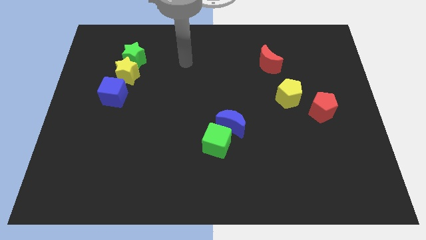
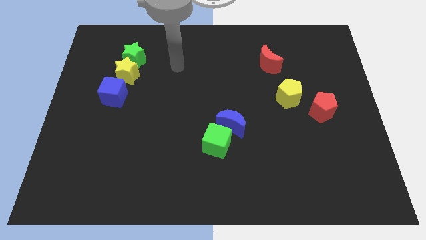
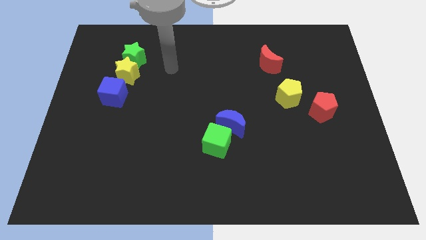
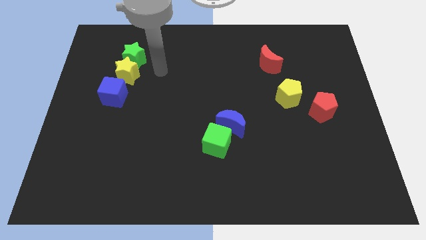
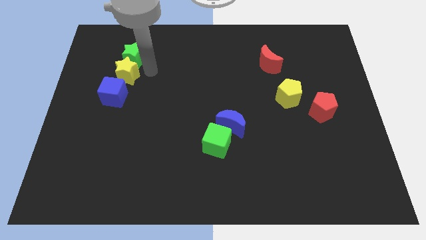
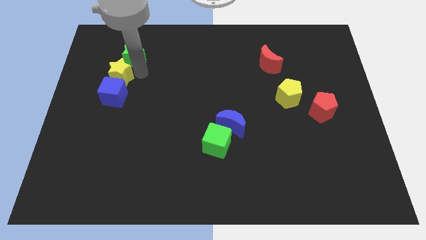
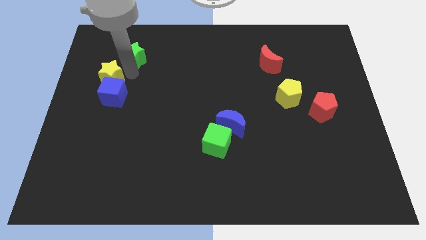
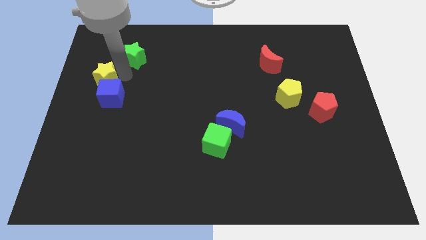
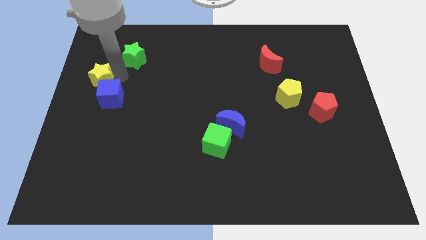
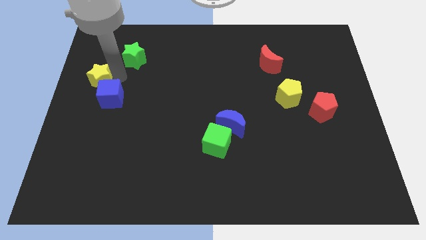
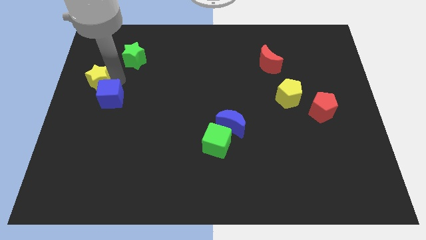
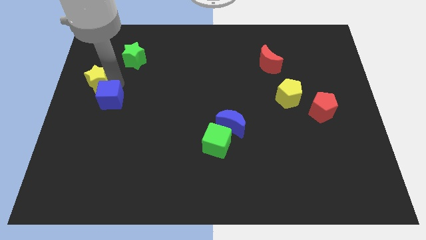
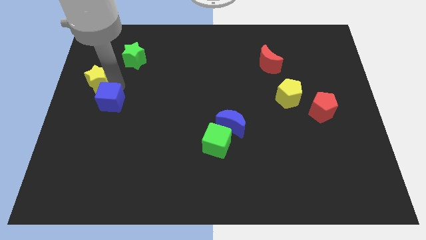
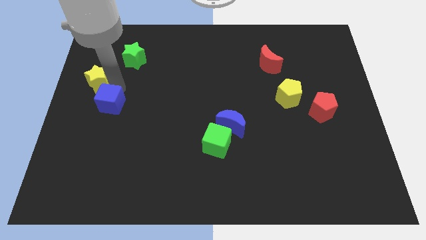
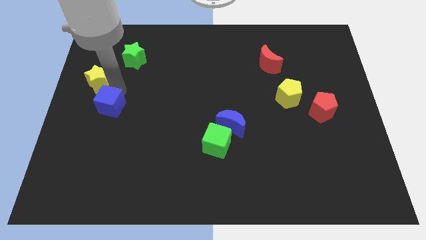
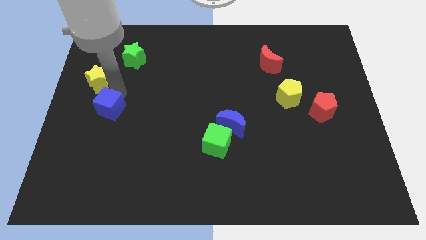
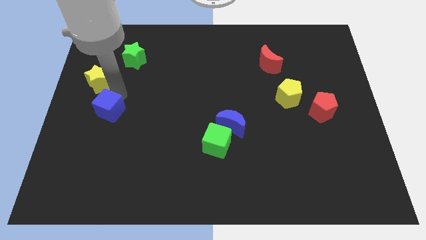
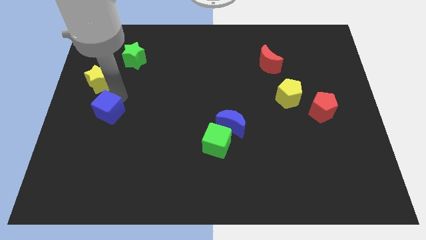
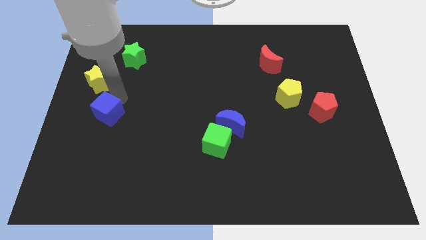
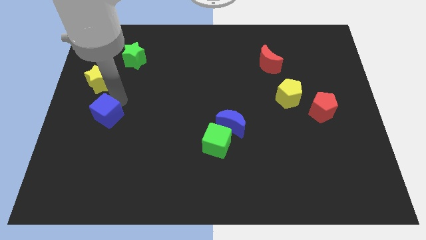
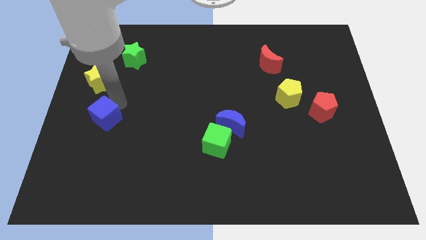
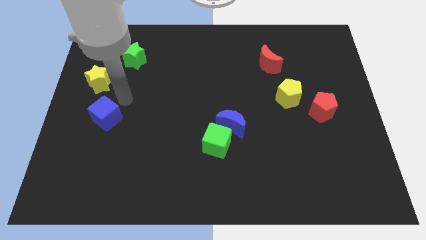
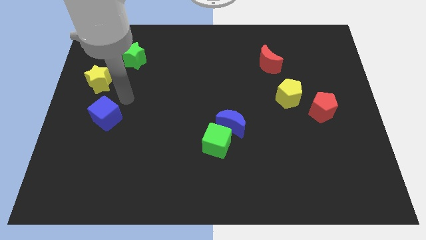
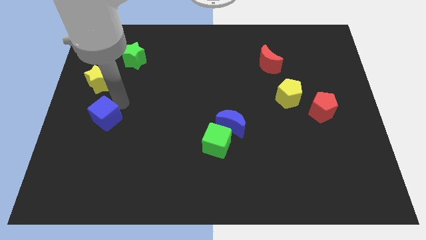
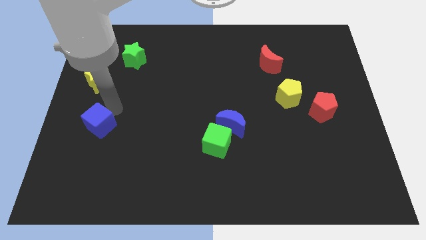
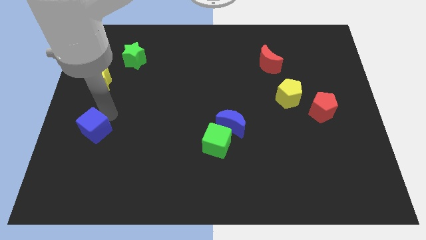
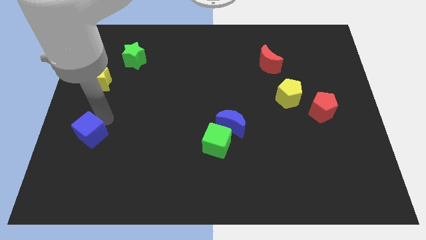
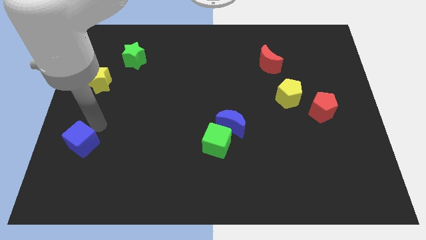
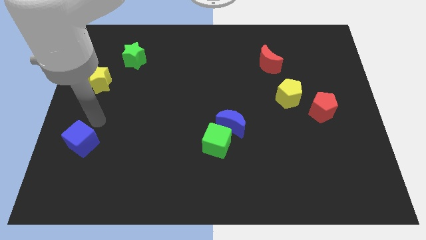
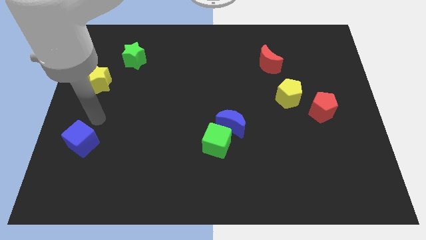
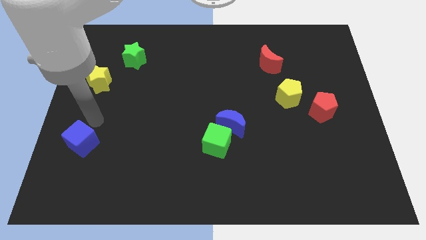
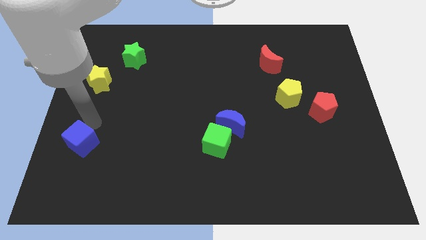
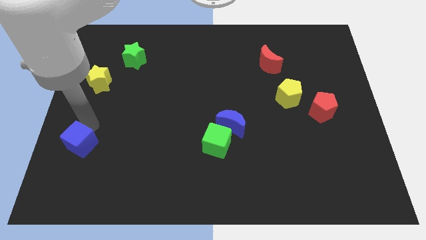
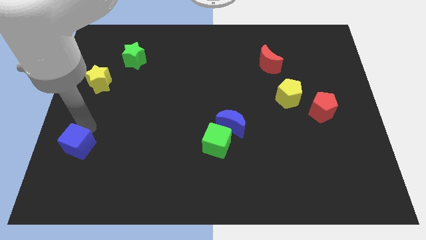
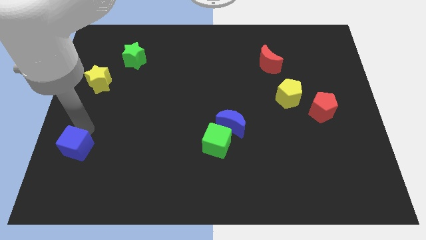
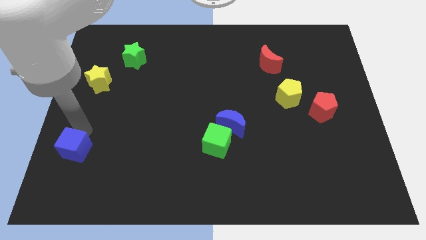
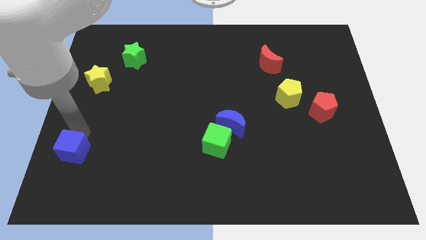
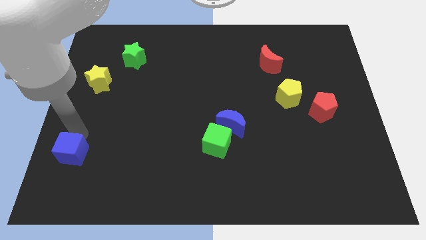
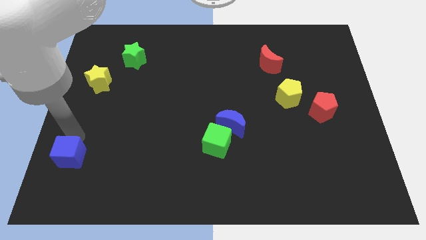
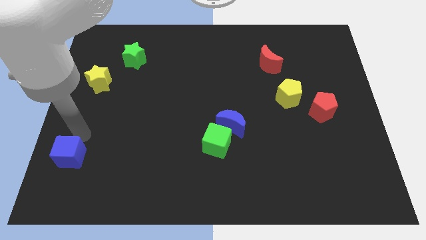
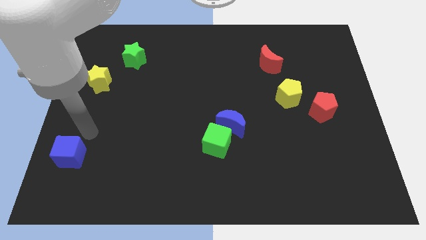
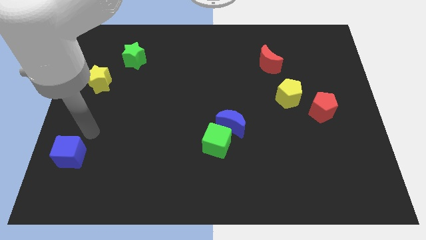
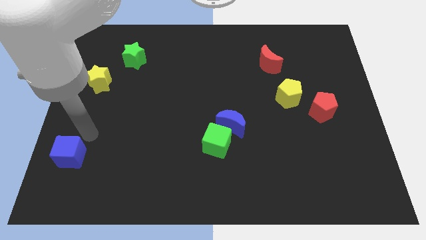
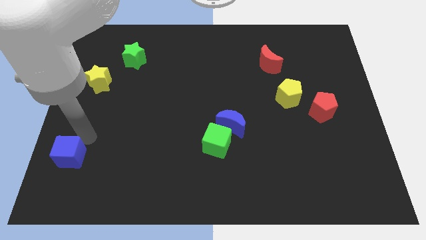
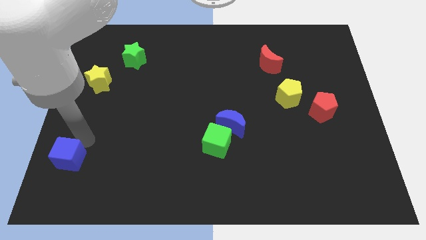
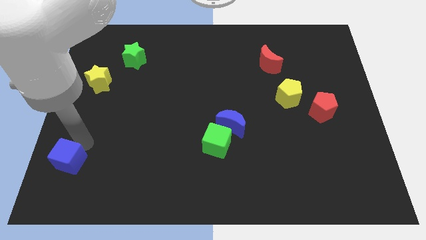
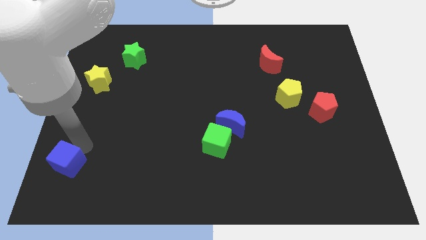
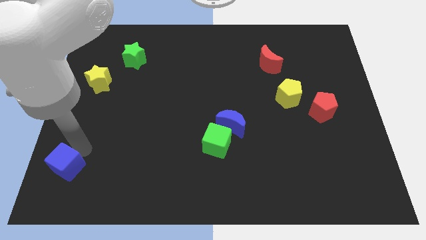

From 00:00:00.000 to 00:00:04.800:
push the blue cube to the bottom left

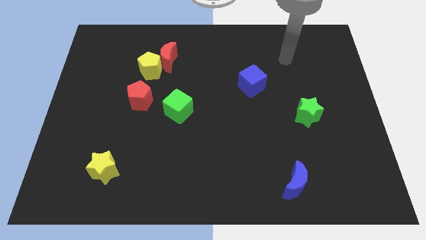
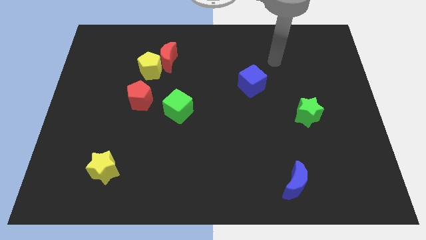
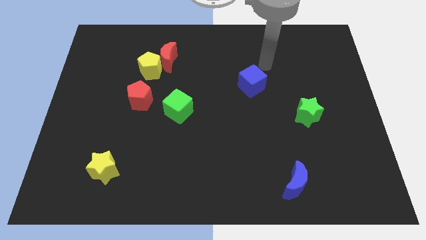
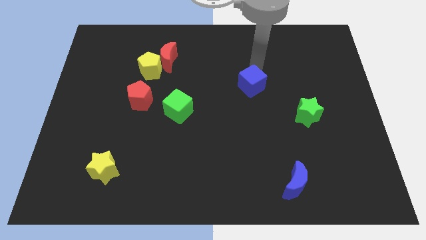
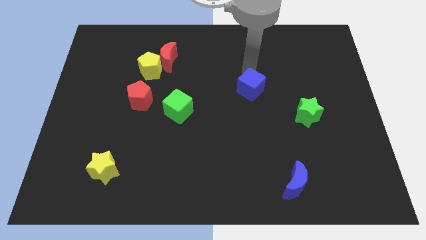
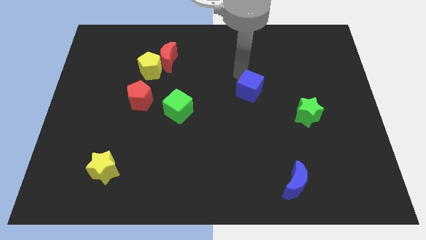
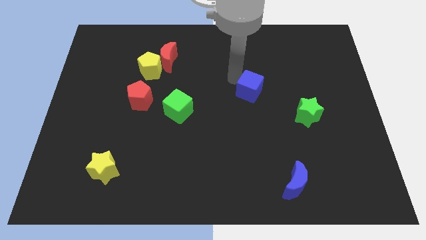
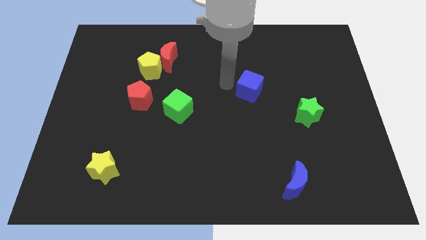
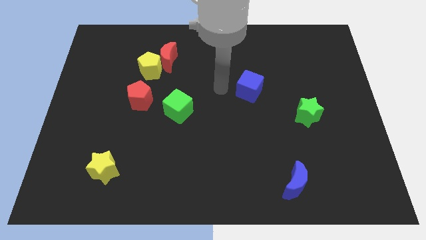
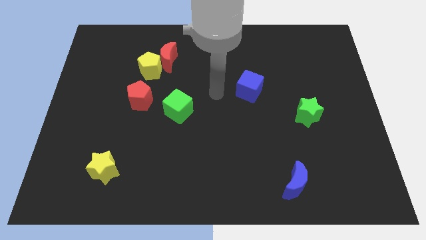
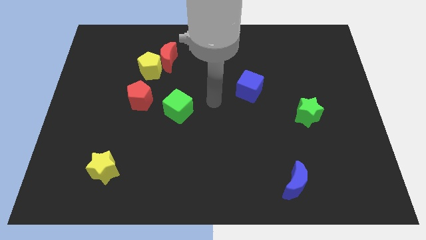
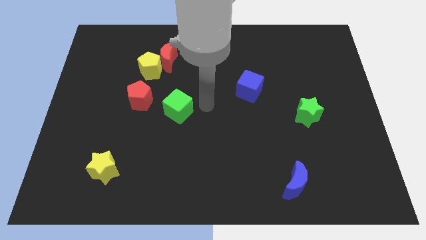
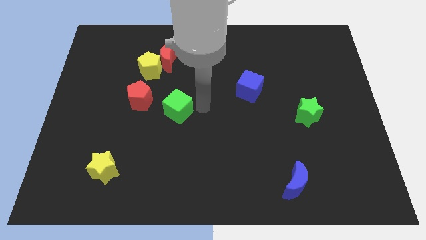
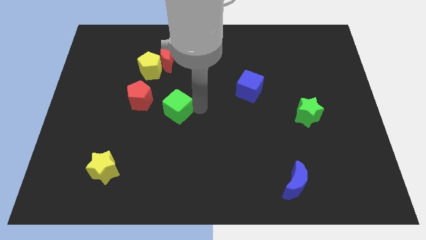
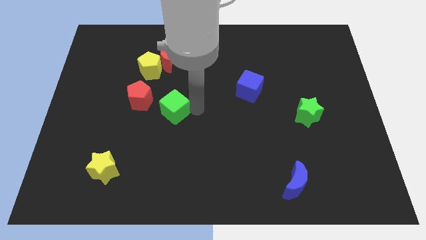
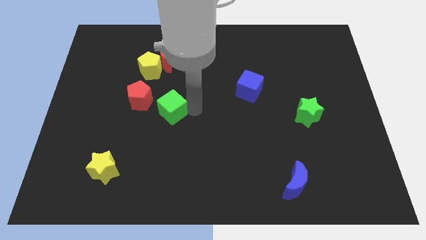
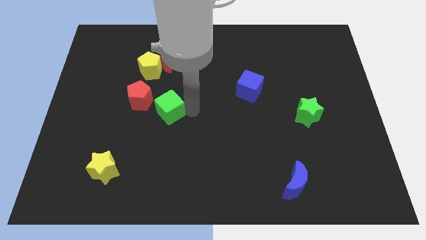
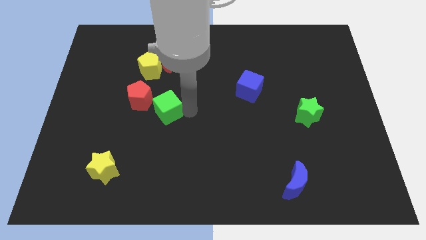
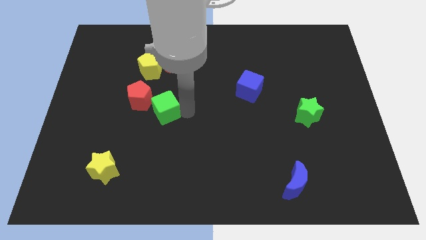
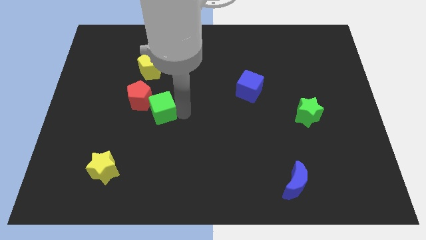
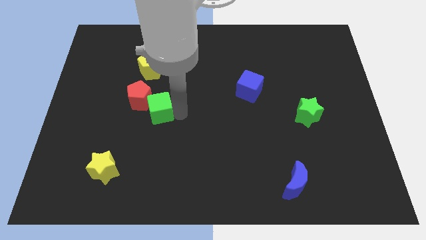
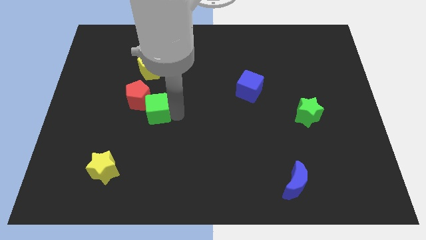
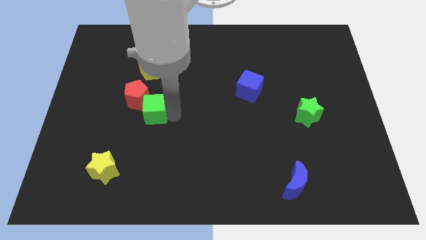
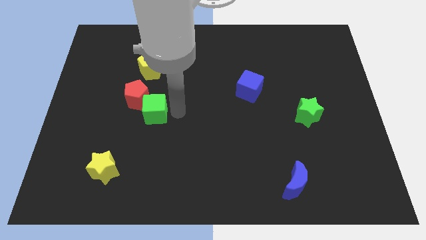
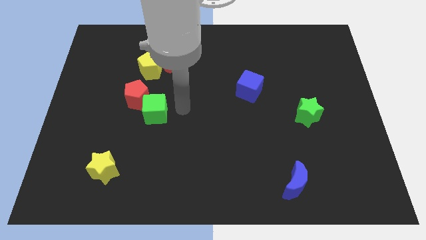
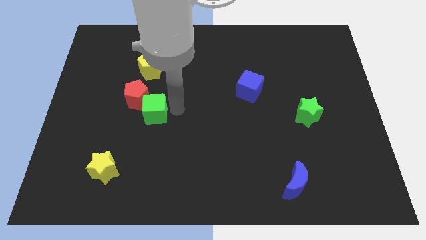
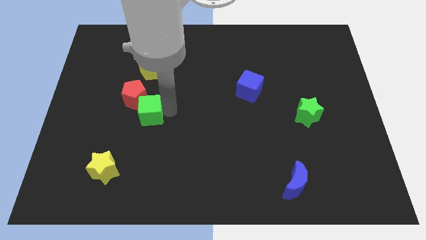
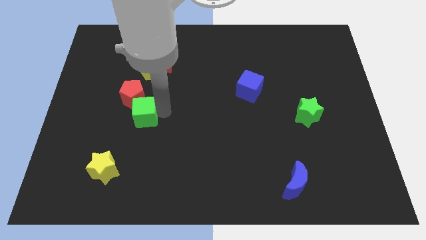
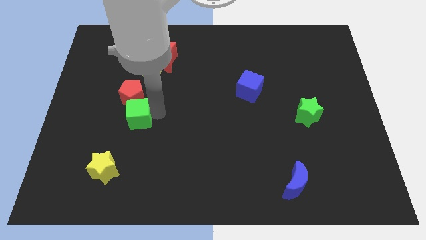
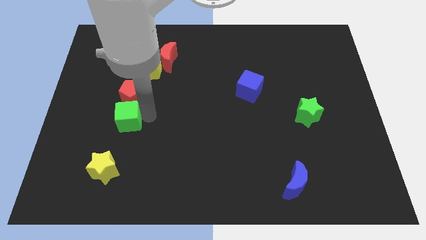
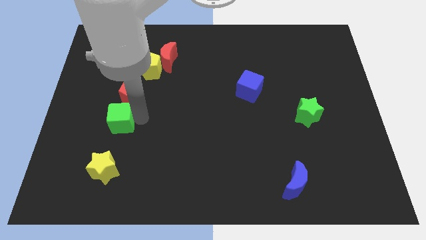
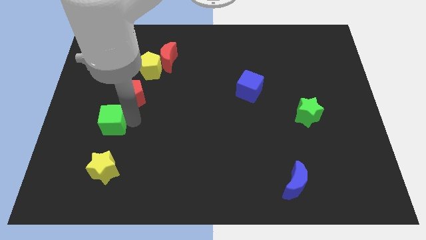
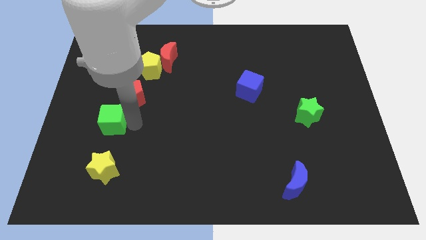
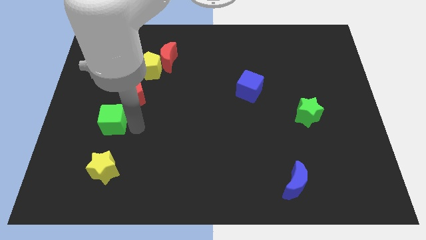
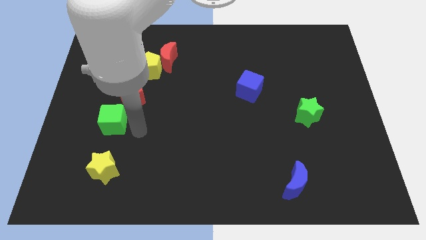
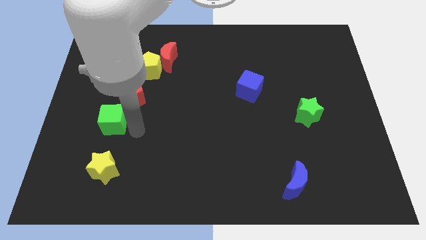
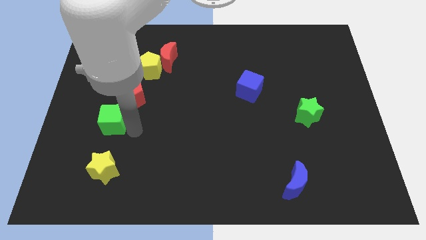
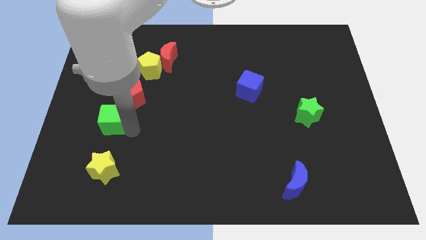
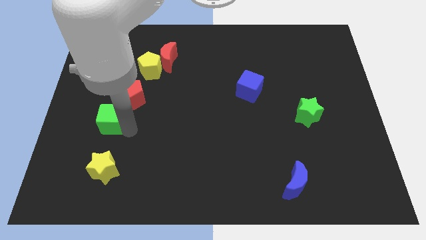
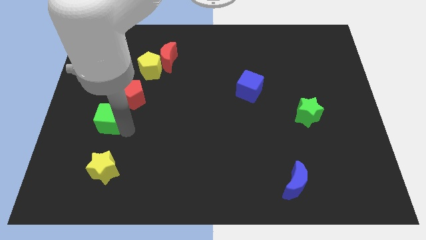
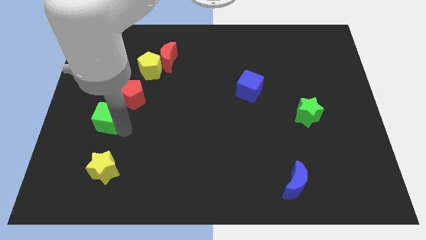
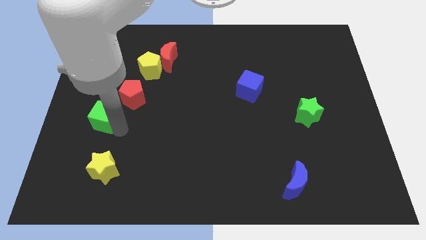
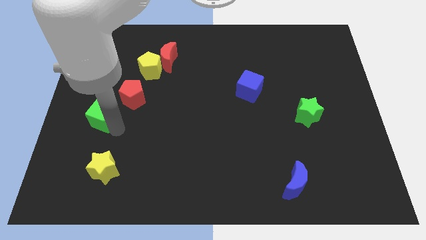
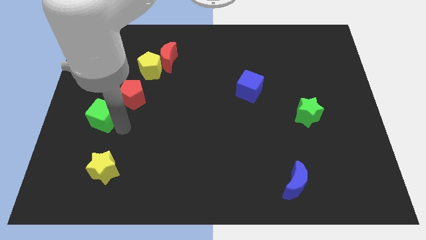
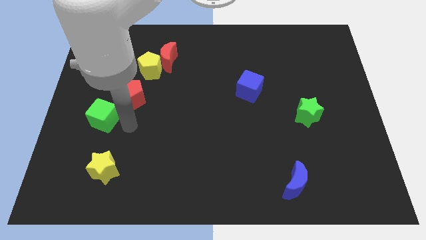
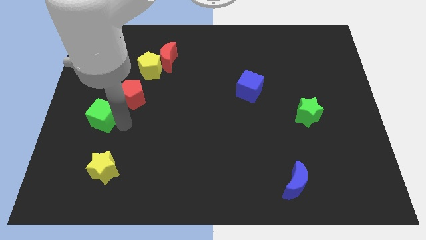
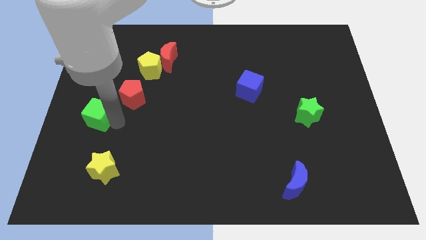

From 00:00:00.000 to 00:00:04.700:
slide the green cube to the center left
